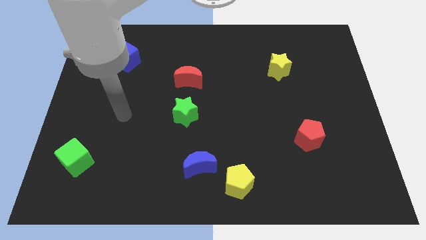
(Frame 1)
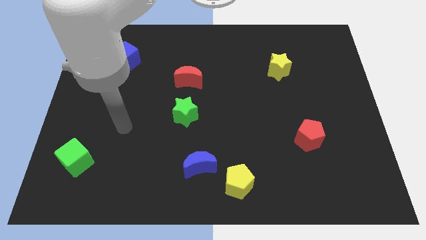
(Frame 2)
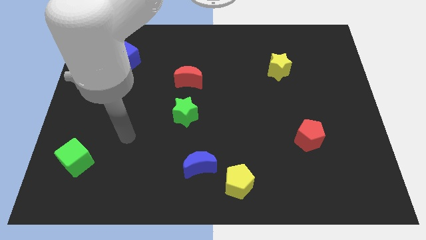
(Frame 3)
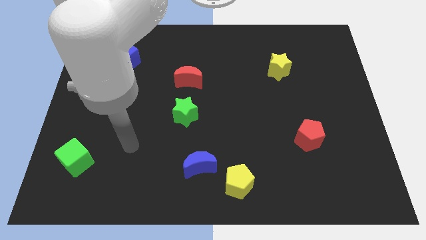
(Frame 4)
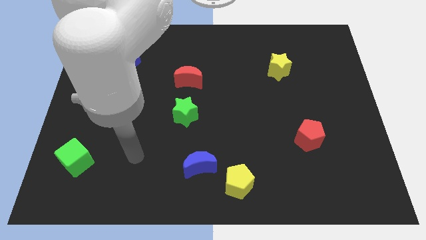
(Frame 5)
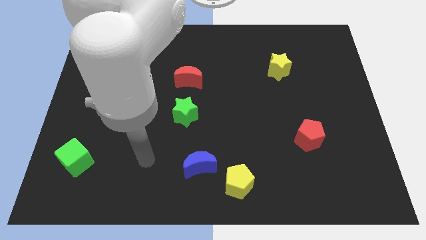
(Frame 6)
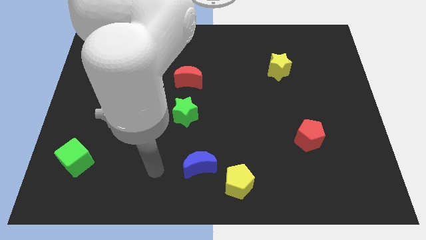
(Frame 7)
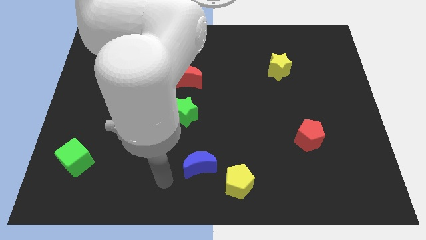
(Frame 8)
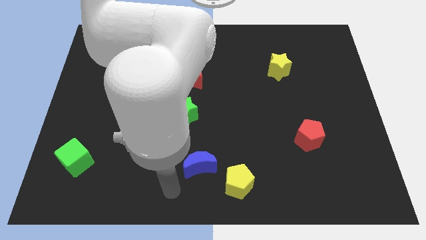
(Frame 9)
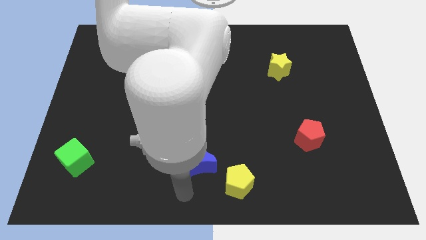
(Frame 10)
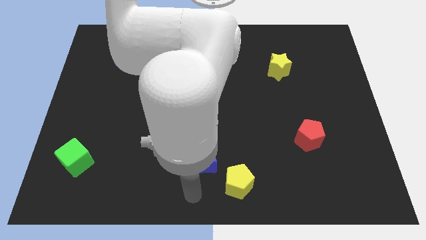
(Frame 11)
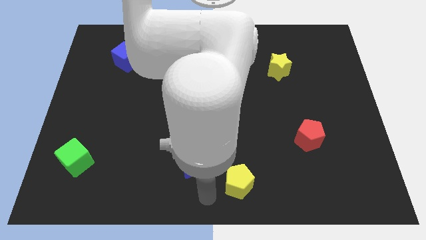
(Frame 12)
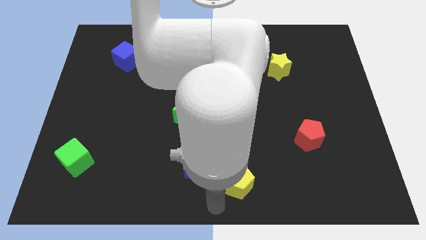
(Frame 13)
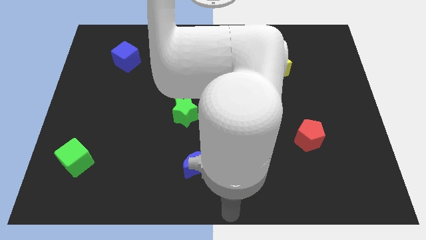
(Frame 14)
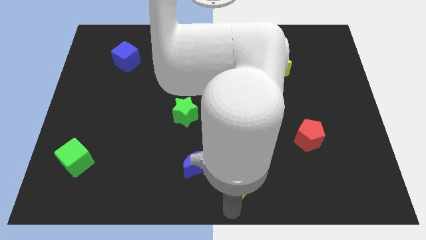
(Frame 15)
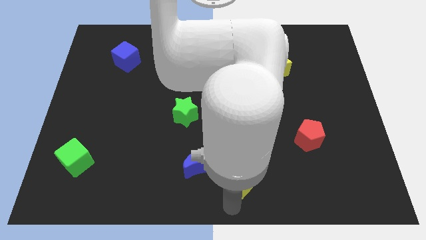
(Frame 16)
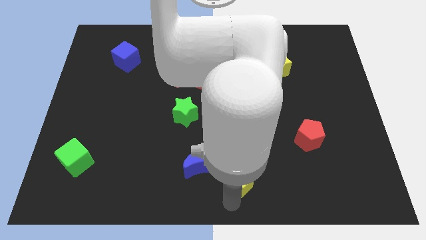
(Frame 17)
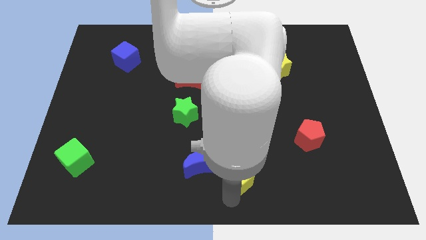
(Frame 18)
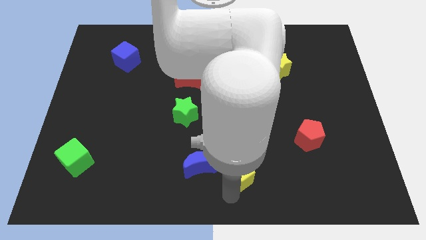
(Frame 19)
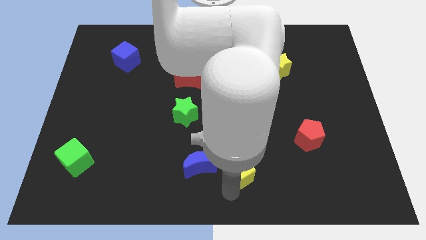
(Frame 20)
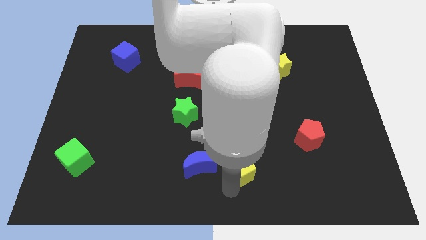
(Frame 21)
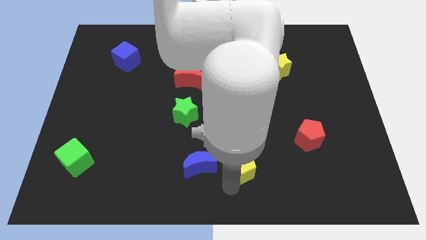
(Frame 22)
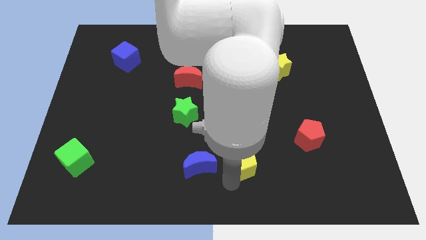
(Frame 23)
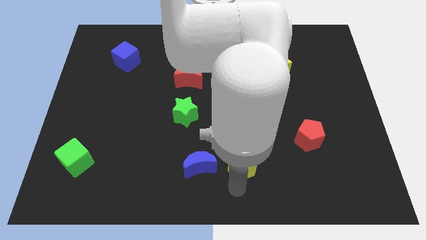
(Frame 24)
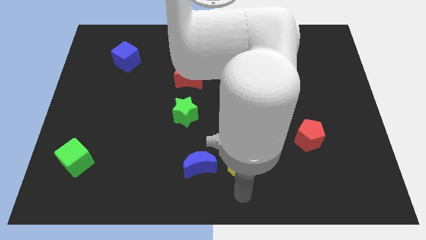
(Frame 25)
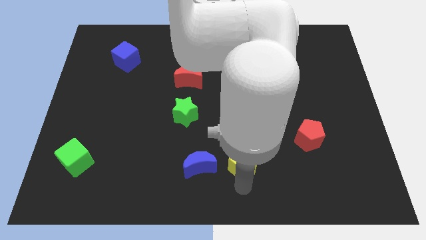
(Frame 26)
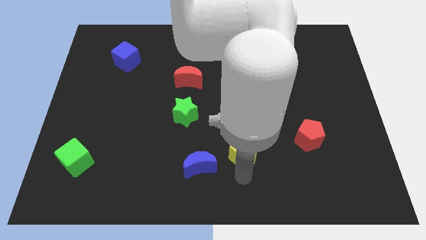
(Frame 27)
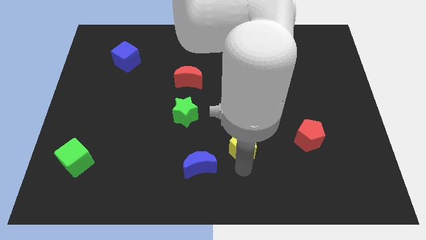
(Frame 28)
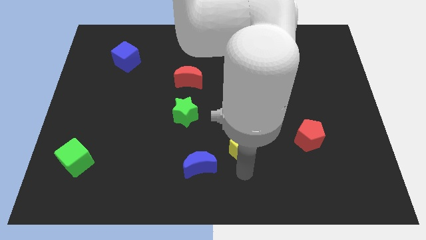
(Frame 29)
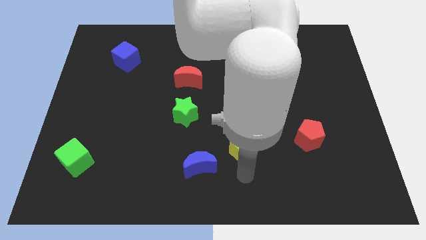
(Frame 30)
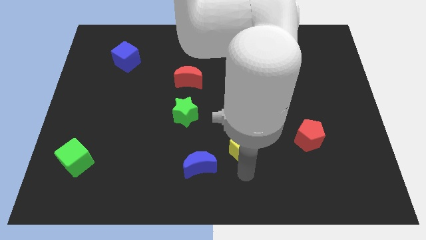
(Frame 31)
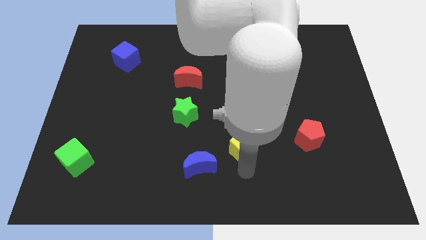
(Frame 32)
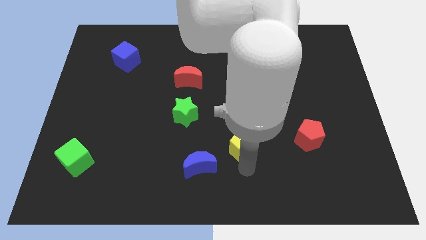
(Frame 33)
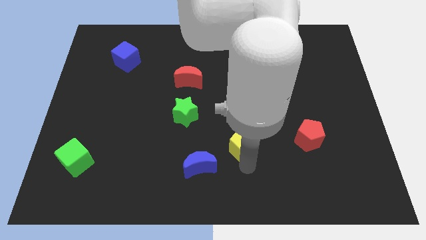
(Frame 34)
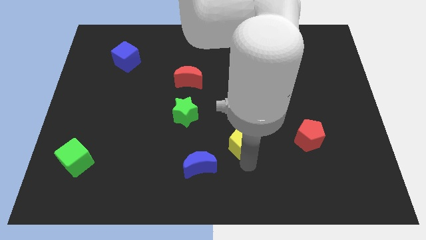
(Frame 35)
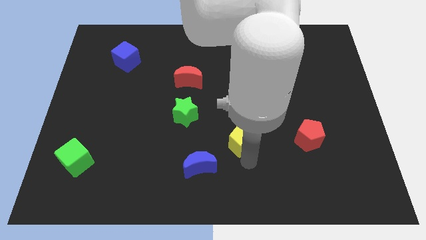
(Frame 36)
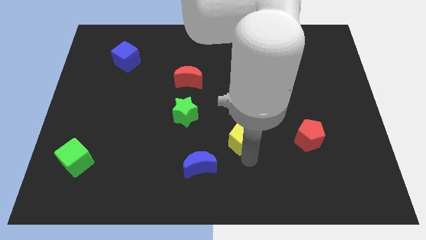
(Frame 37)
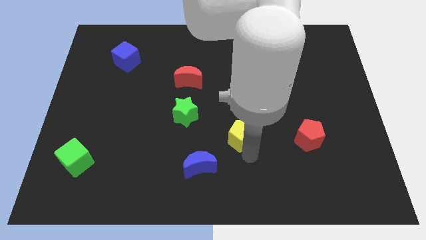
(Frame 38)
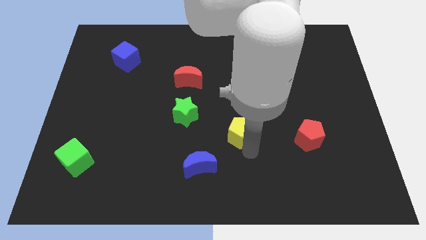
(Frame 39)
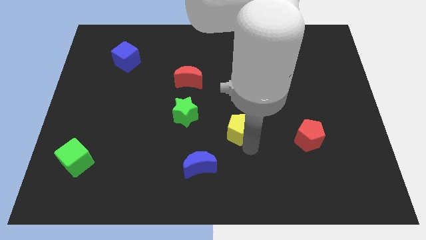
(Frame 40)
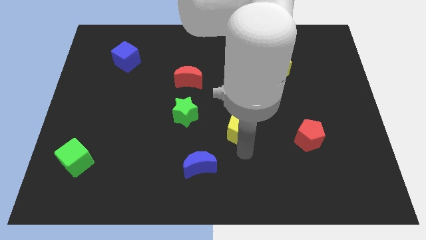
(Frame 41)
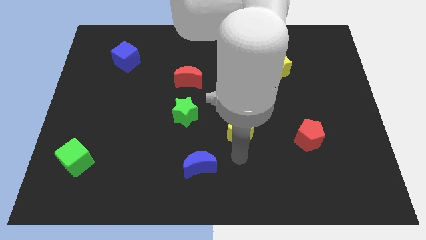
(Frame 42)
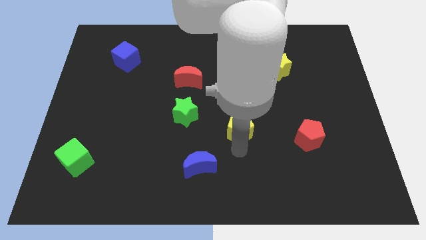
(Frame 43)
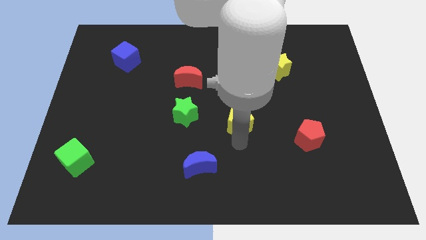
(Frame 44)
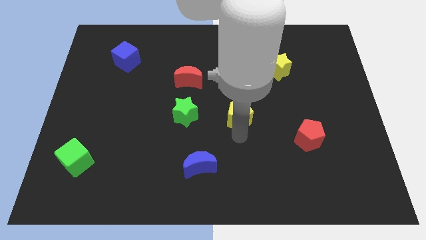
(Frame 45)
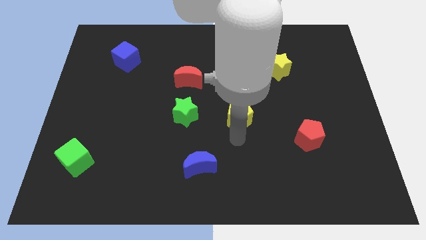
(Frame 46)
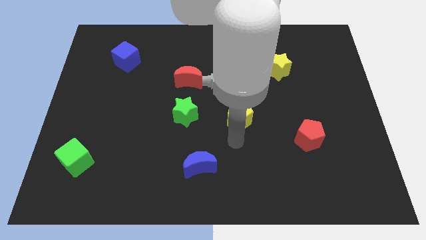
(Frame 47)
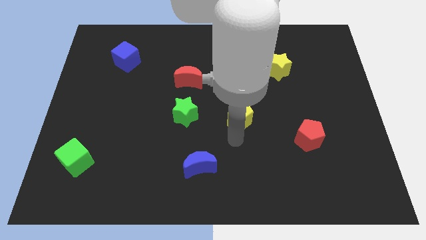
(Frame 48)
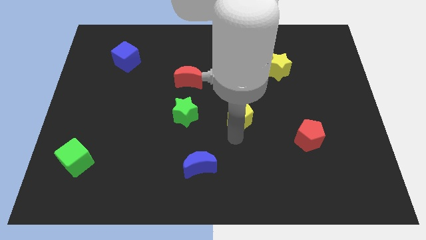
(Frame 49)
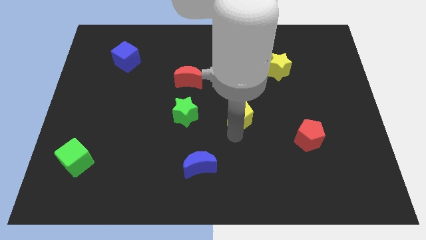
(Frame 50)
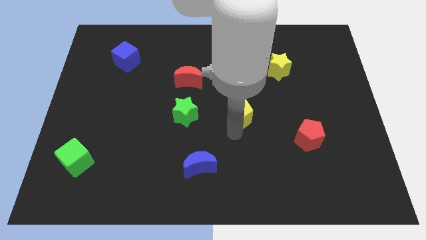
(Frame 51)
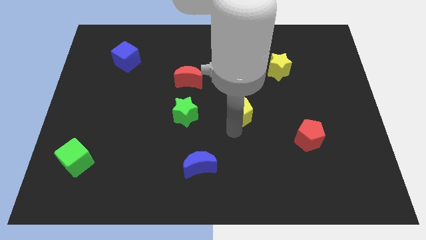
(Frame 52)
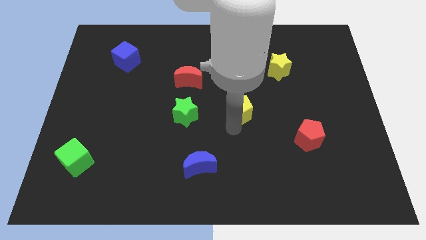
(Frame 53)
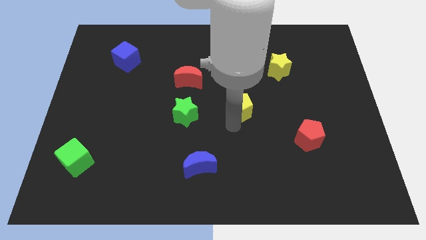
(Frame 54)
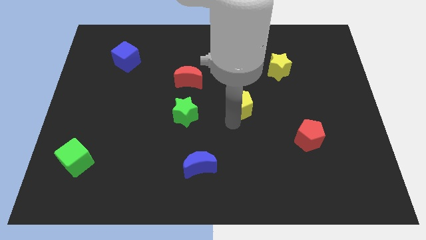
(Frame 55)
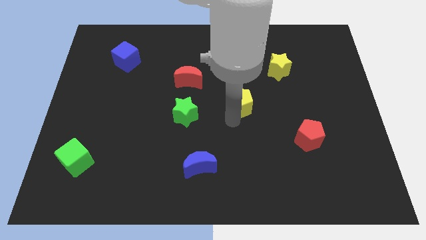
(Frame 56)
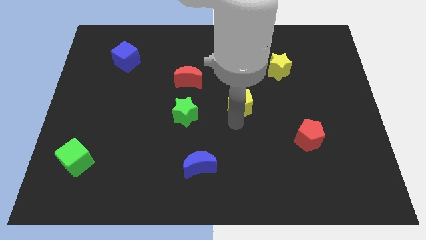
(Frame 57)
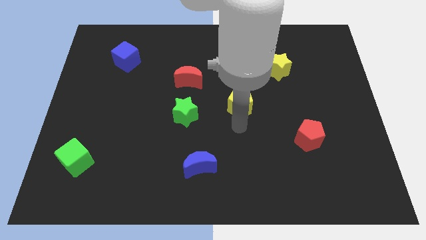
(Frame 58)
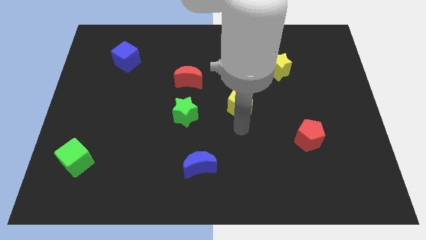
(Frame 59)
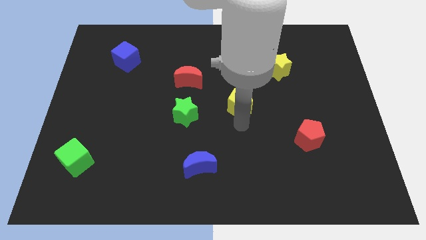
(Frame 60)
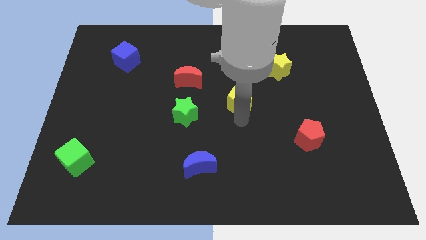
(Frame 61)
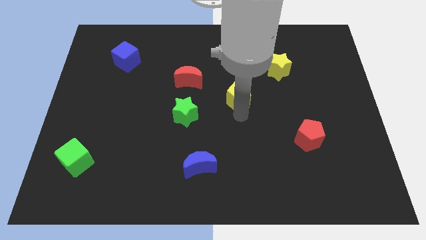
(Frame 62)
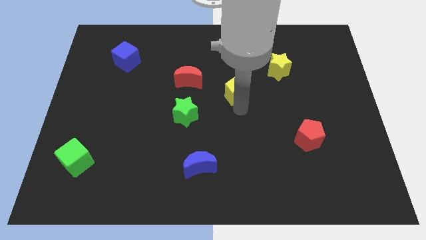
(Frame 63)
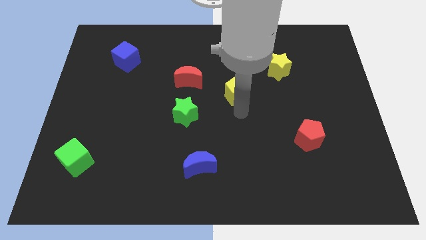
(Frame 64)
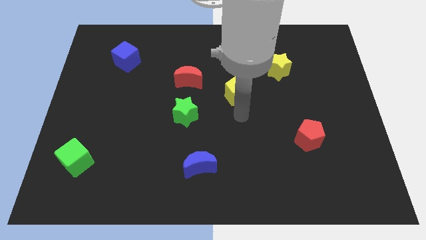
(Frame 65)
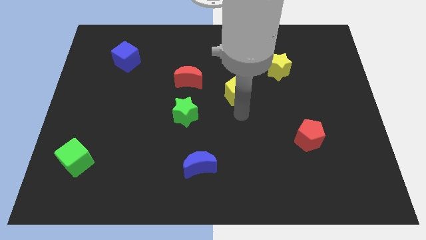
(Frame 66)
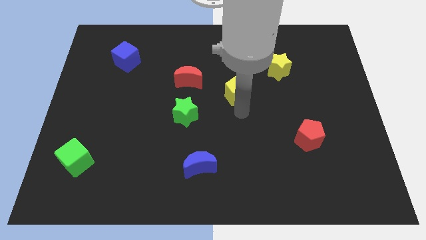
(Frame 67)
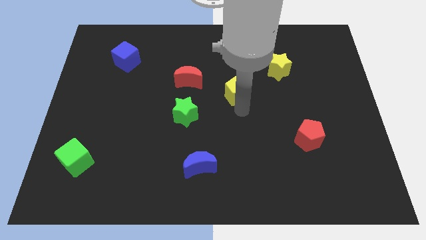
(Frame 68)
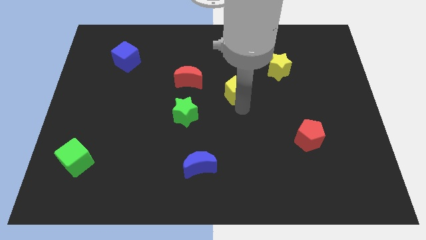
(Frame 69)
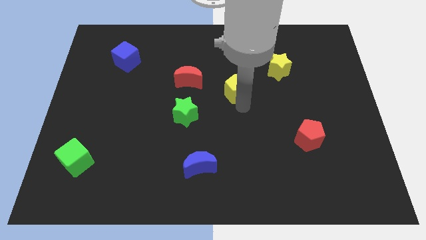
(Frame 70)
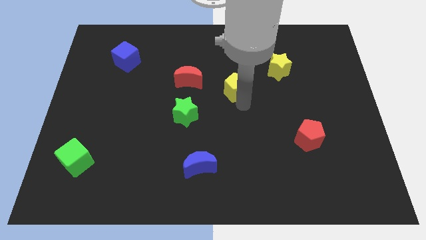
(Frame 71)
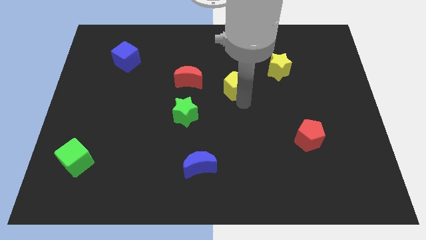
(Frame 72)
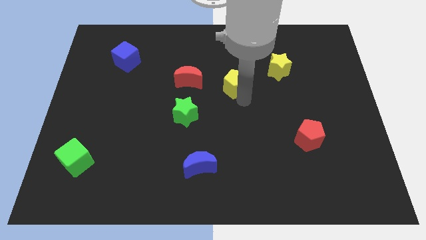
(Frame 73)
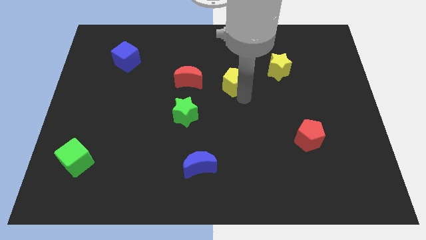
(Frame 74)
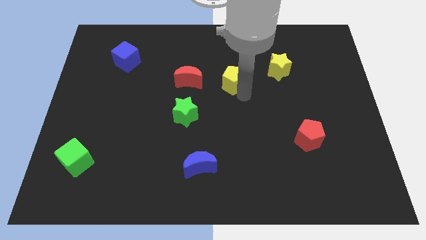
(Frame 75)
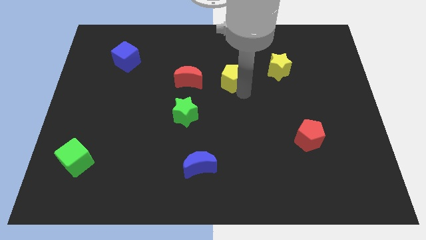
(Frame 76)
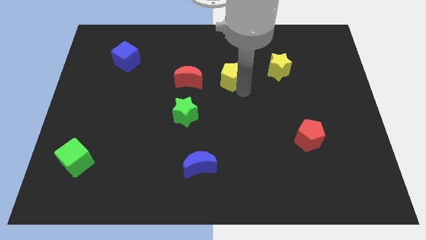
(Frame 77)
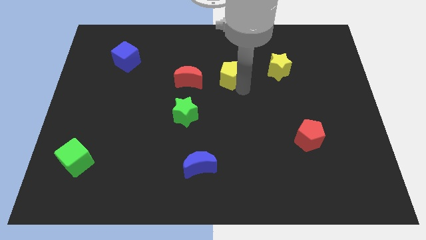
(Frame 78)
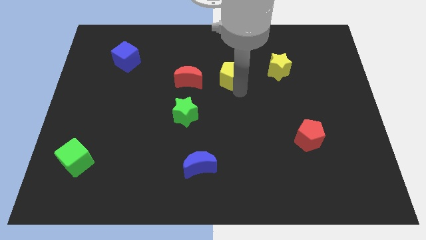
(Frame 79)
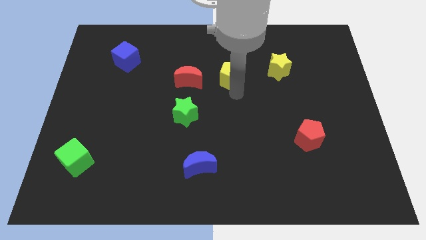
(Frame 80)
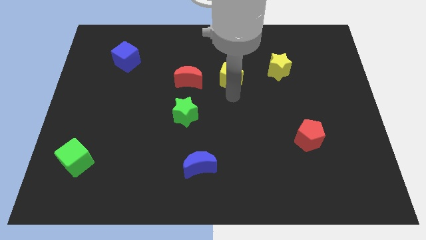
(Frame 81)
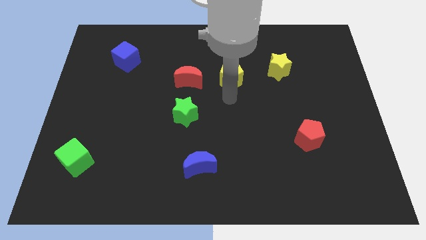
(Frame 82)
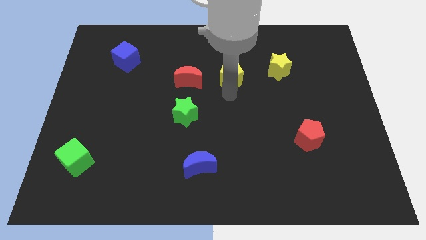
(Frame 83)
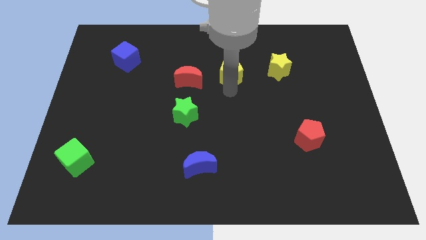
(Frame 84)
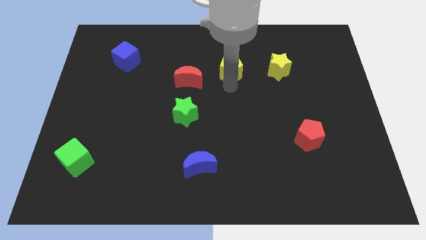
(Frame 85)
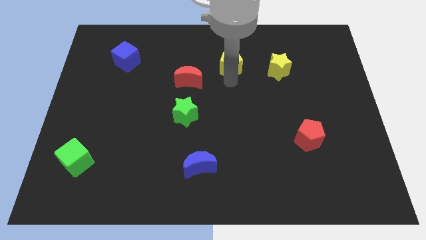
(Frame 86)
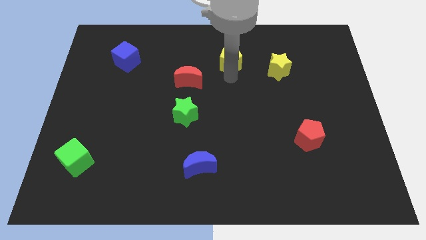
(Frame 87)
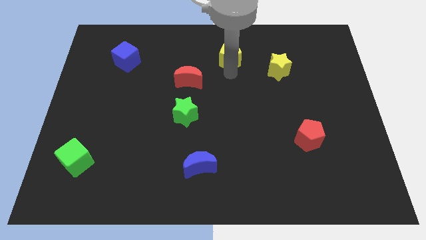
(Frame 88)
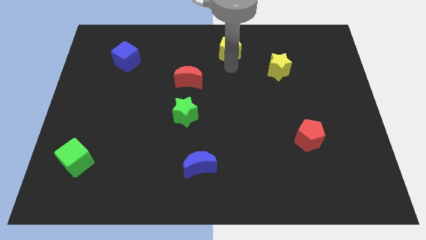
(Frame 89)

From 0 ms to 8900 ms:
push the yellow pentagon to the towards your base
